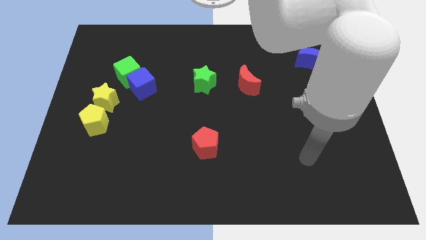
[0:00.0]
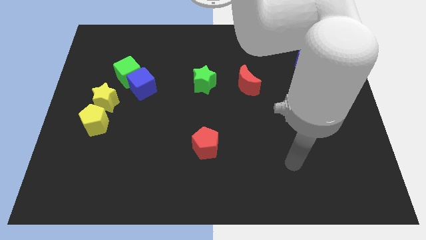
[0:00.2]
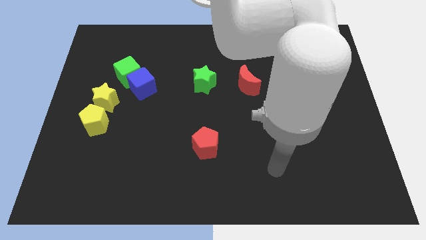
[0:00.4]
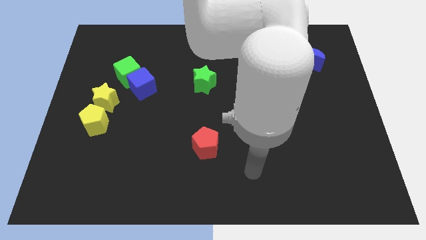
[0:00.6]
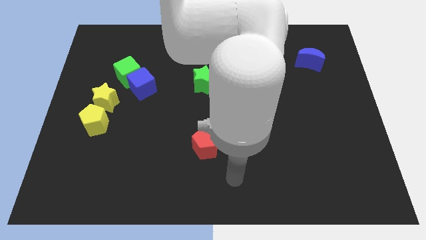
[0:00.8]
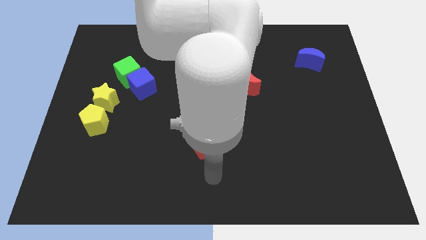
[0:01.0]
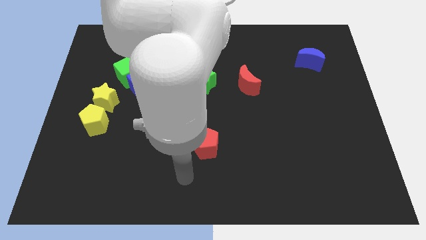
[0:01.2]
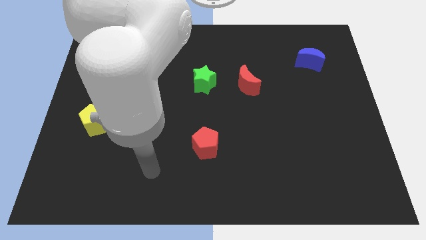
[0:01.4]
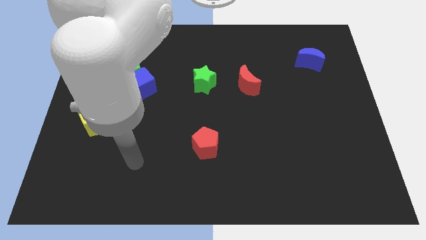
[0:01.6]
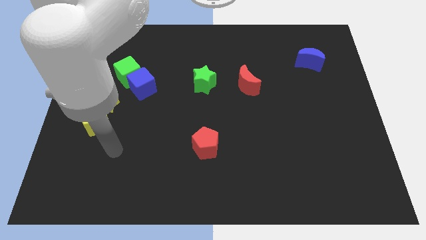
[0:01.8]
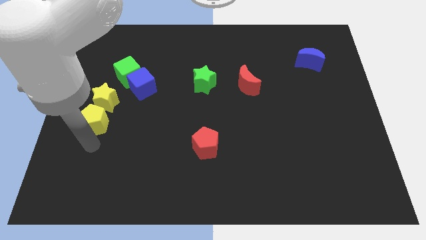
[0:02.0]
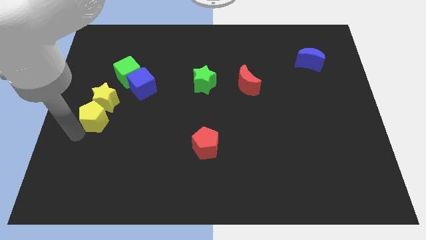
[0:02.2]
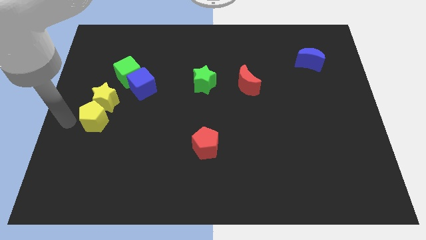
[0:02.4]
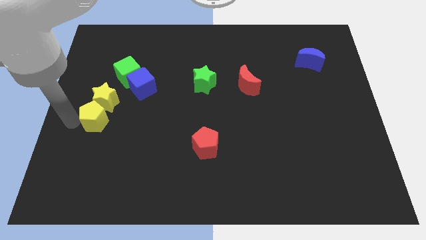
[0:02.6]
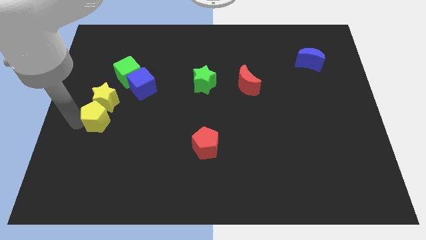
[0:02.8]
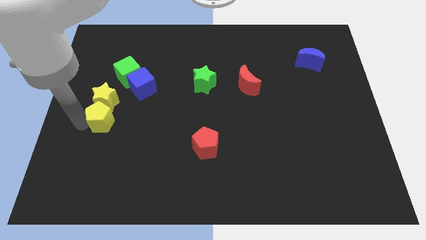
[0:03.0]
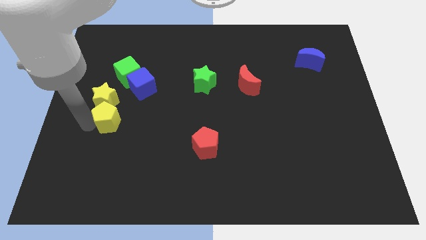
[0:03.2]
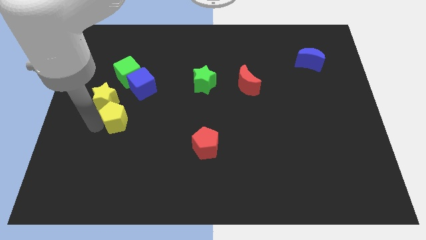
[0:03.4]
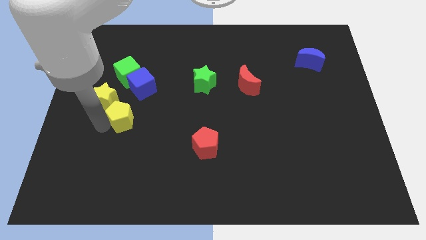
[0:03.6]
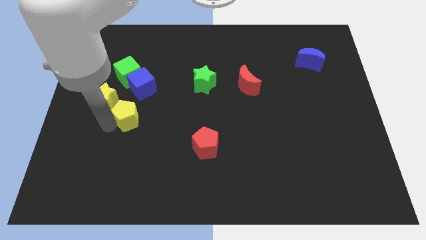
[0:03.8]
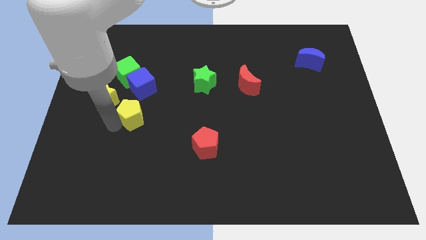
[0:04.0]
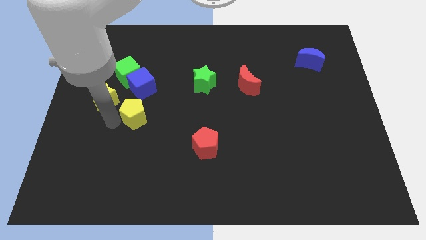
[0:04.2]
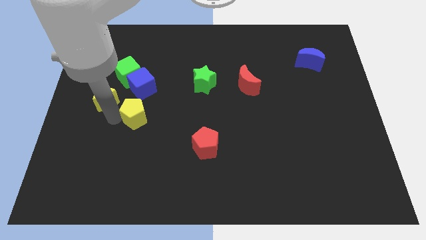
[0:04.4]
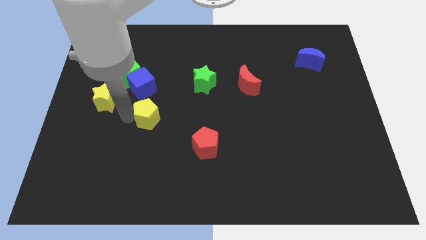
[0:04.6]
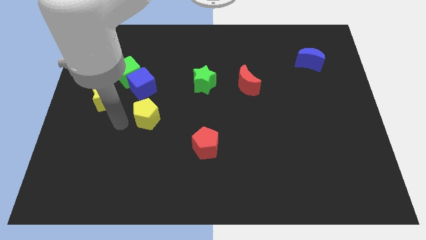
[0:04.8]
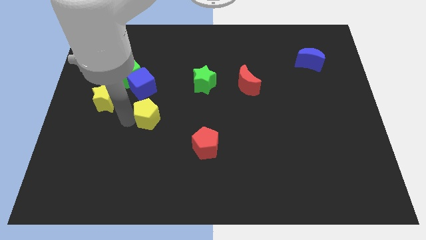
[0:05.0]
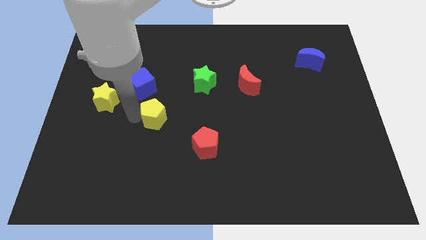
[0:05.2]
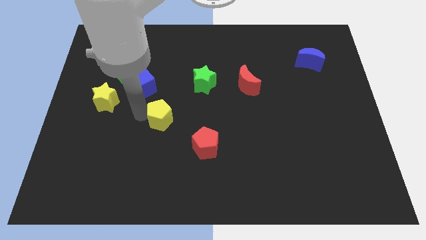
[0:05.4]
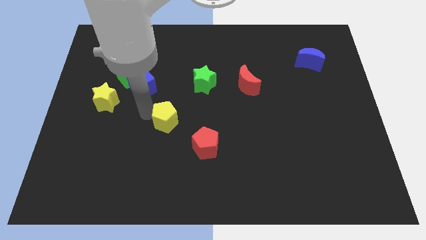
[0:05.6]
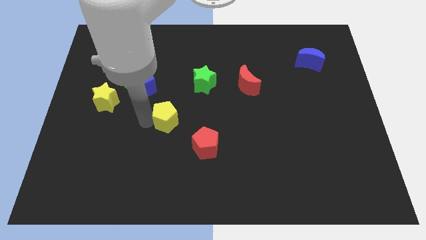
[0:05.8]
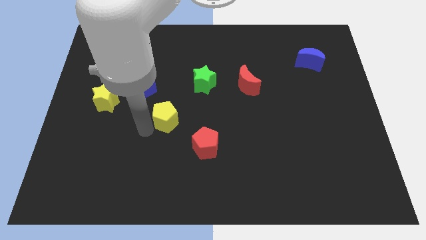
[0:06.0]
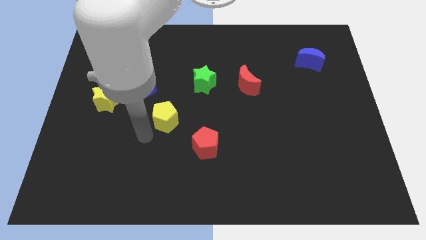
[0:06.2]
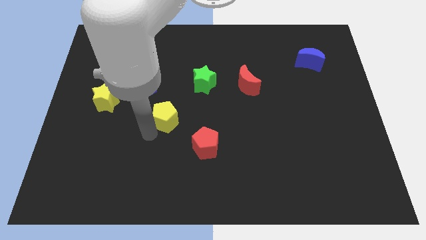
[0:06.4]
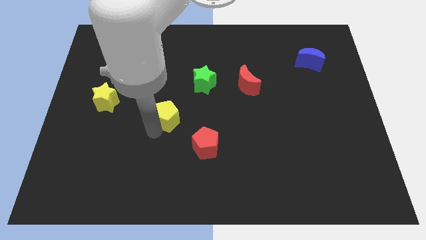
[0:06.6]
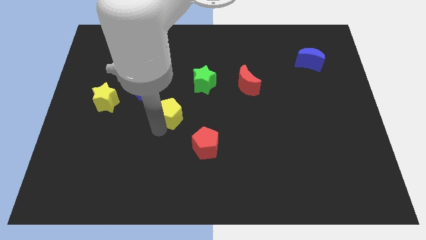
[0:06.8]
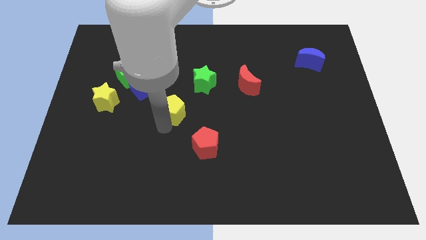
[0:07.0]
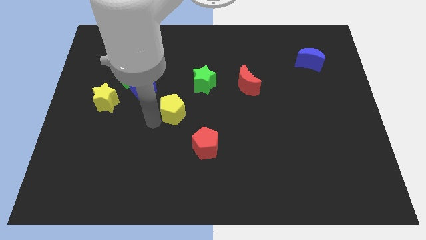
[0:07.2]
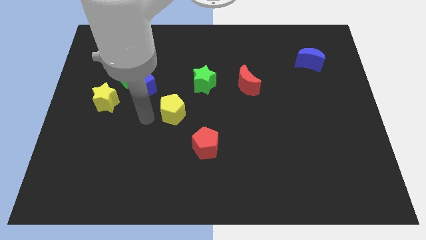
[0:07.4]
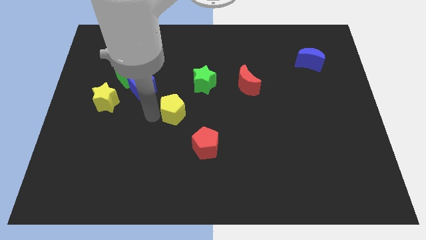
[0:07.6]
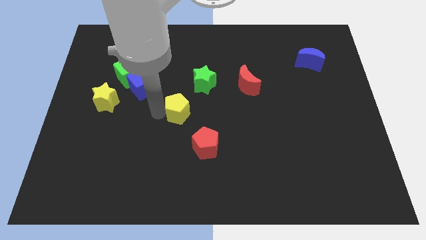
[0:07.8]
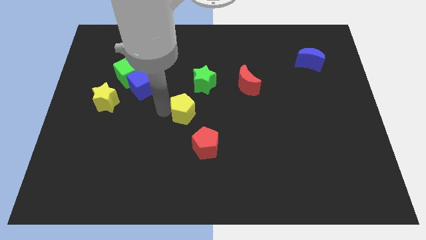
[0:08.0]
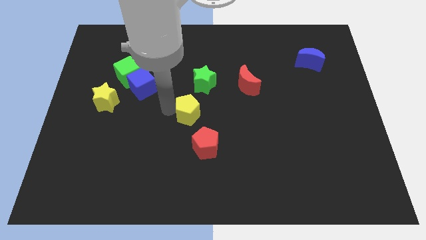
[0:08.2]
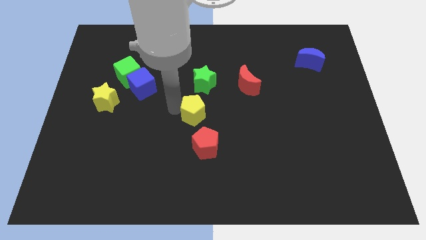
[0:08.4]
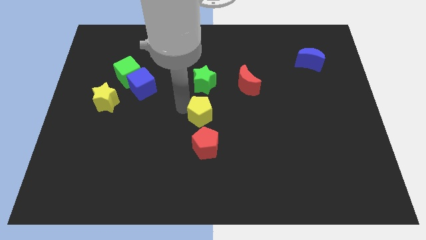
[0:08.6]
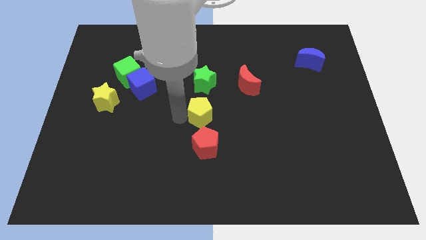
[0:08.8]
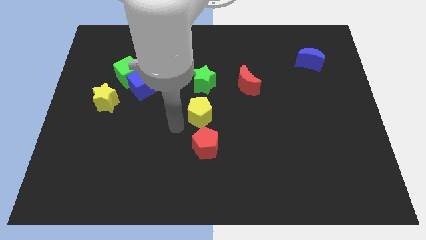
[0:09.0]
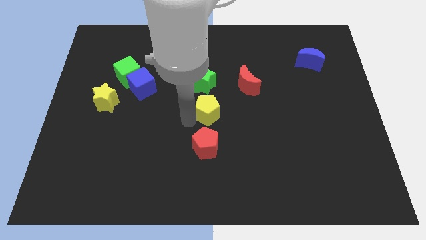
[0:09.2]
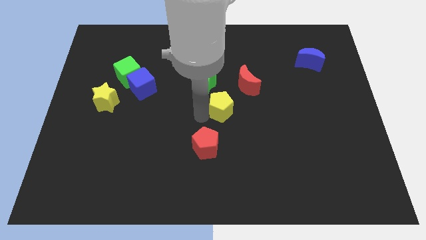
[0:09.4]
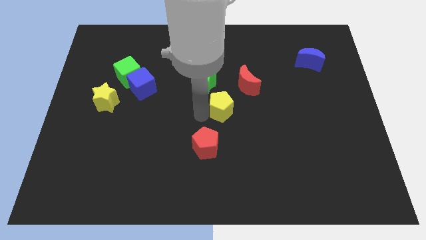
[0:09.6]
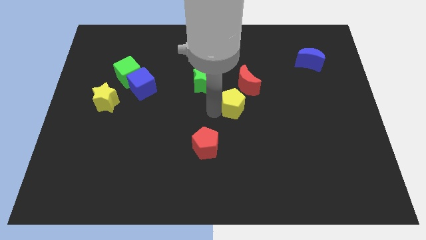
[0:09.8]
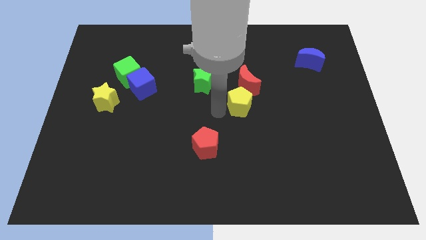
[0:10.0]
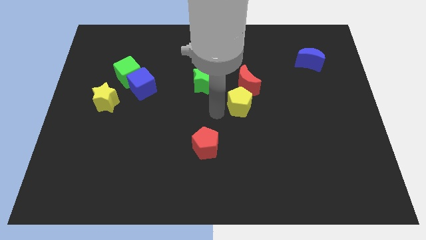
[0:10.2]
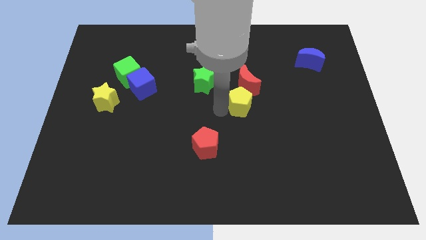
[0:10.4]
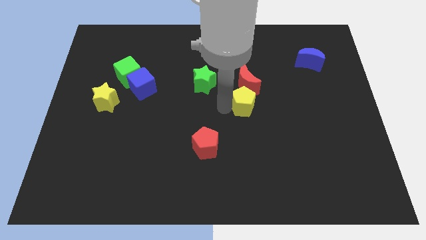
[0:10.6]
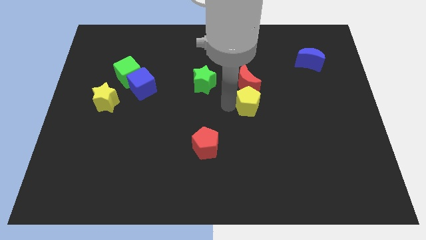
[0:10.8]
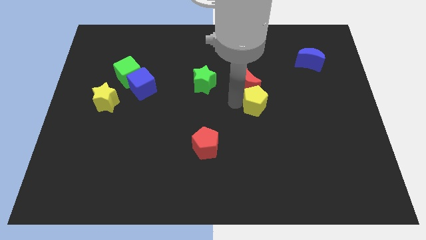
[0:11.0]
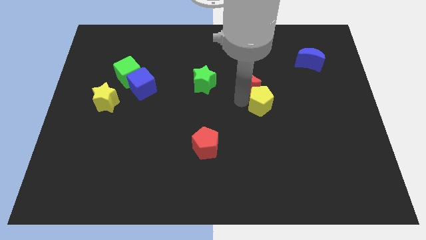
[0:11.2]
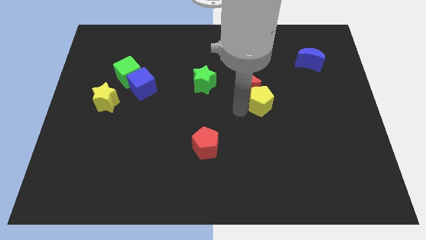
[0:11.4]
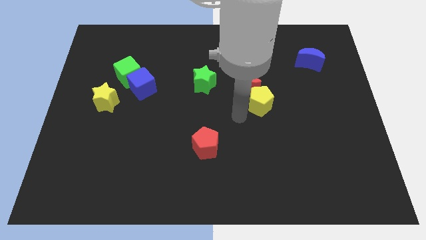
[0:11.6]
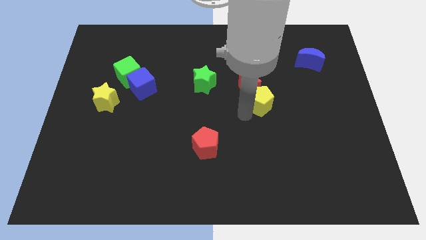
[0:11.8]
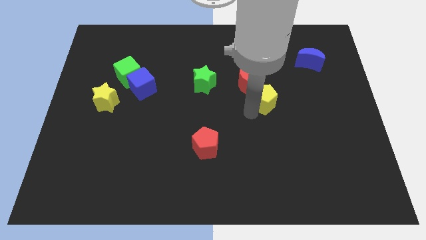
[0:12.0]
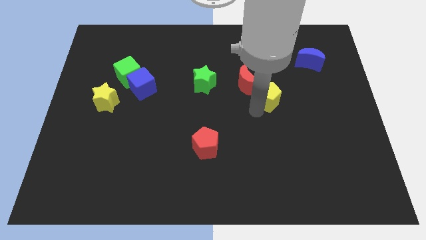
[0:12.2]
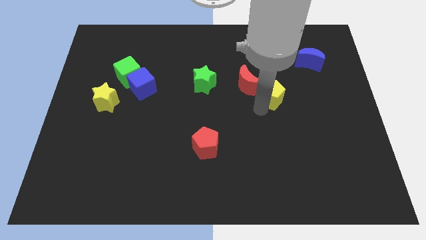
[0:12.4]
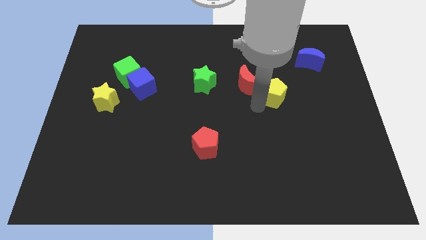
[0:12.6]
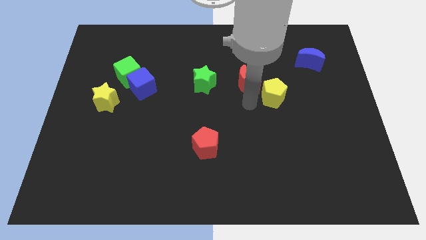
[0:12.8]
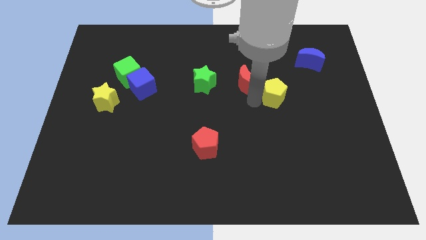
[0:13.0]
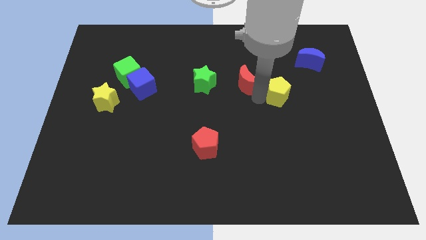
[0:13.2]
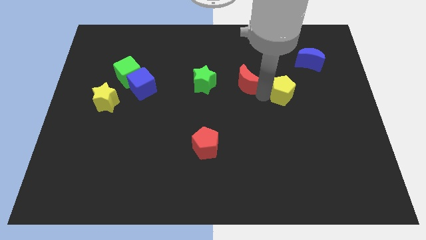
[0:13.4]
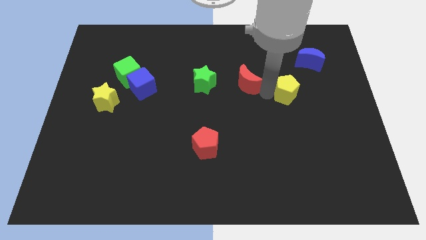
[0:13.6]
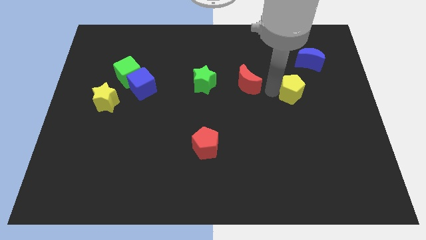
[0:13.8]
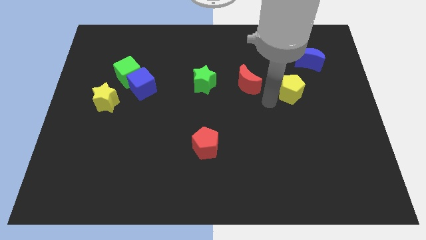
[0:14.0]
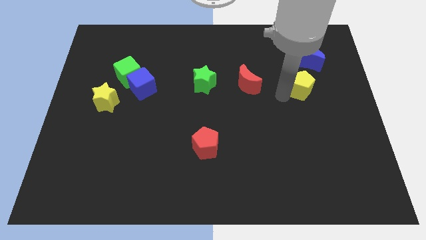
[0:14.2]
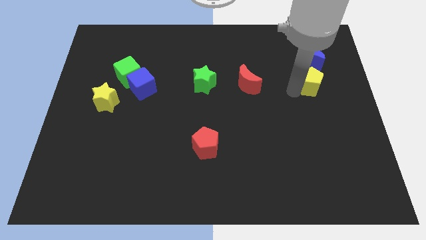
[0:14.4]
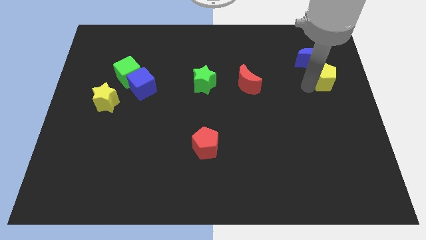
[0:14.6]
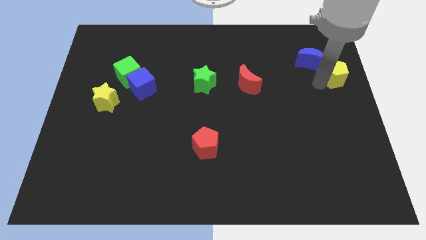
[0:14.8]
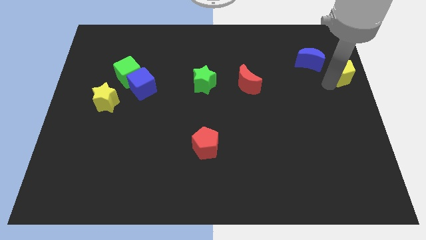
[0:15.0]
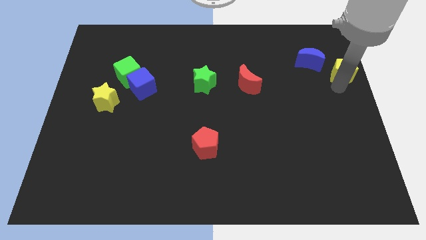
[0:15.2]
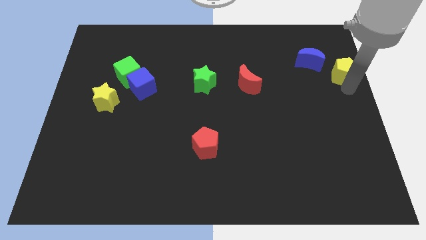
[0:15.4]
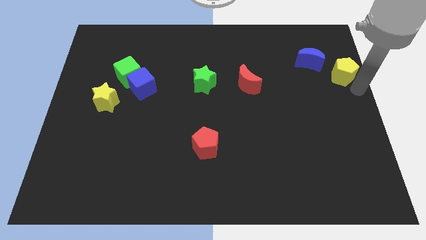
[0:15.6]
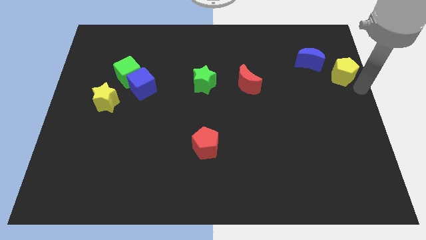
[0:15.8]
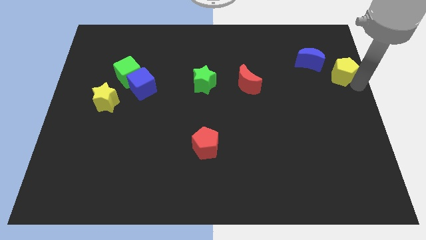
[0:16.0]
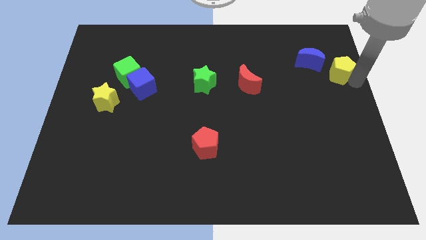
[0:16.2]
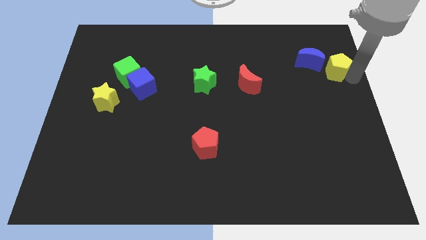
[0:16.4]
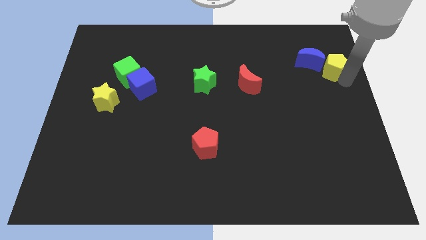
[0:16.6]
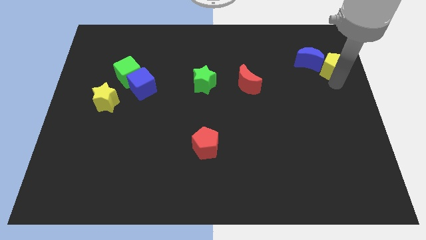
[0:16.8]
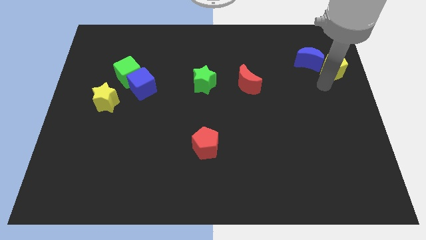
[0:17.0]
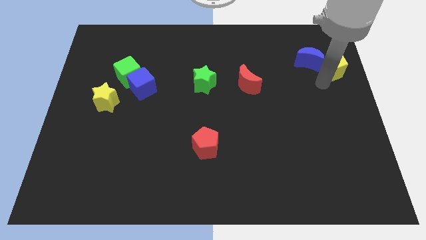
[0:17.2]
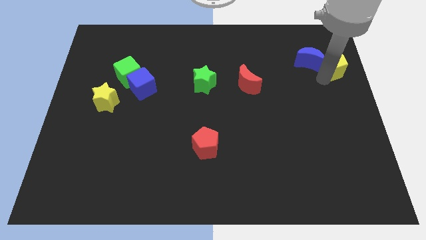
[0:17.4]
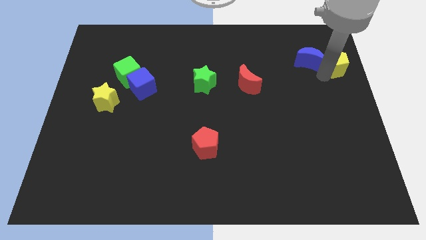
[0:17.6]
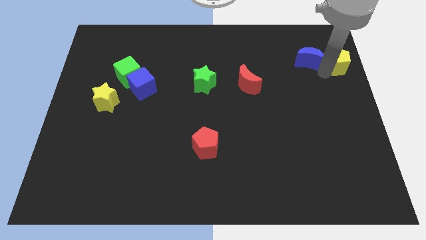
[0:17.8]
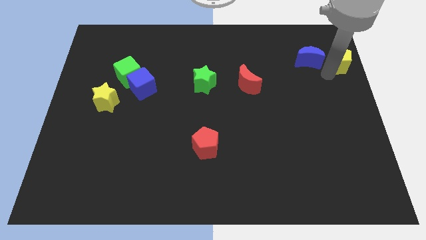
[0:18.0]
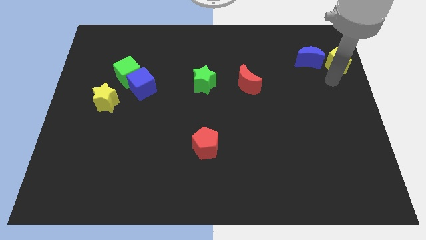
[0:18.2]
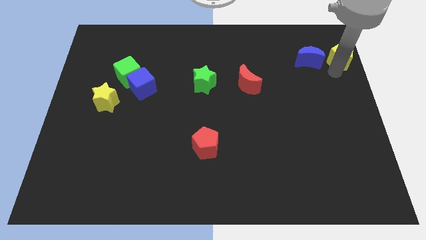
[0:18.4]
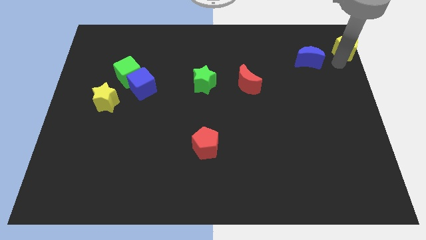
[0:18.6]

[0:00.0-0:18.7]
put the yellow pentagon to the top right corner
